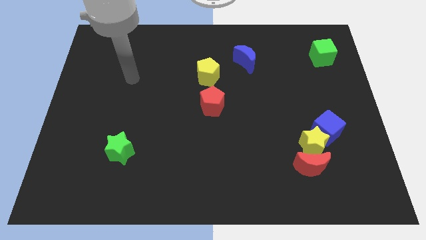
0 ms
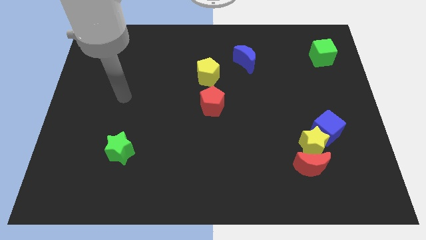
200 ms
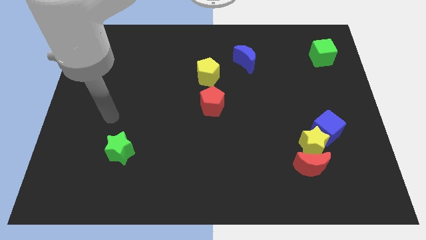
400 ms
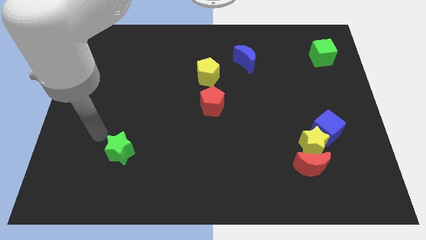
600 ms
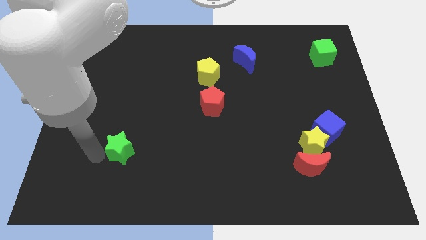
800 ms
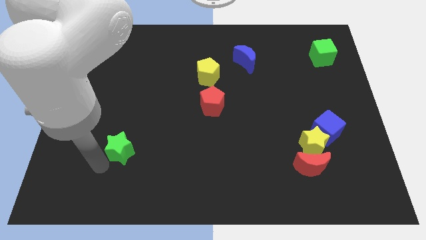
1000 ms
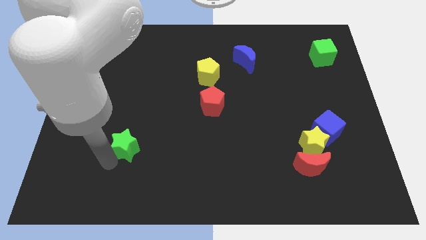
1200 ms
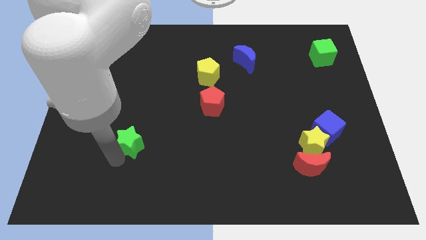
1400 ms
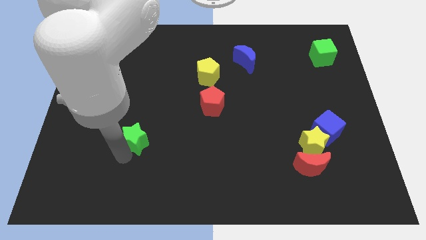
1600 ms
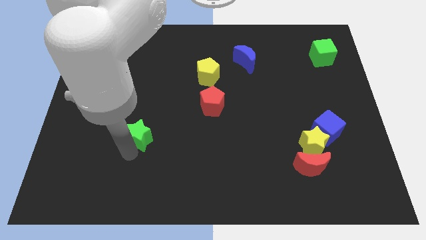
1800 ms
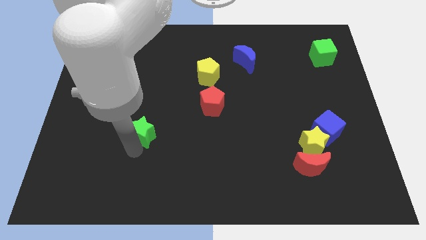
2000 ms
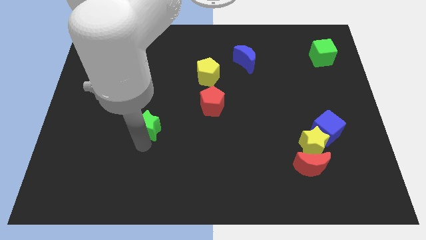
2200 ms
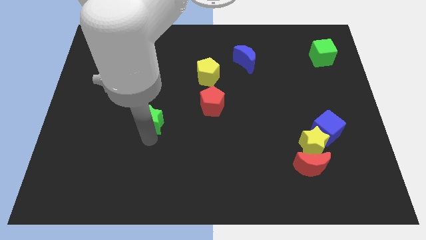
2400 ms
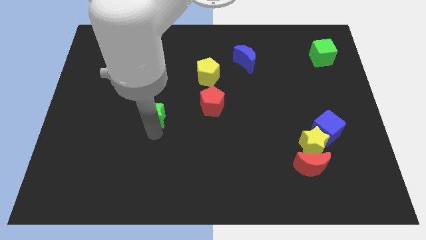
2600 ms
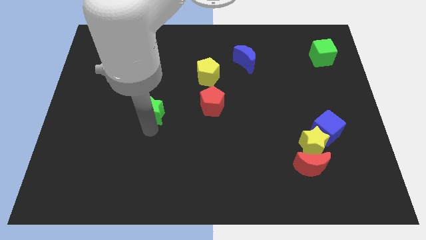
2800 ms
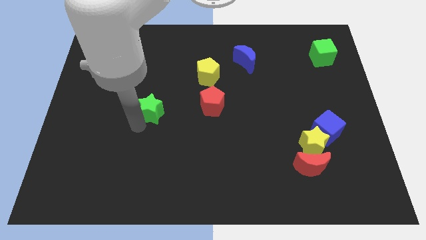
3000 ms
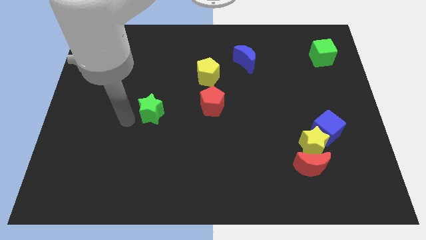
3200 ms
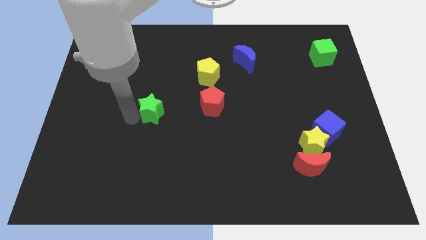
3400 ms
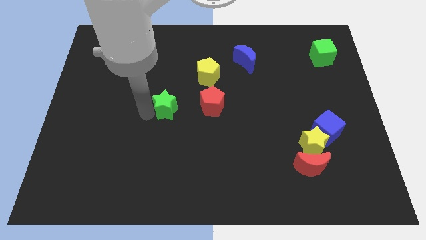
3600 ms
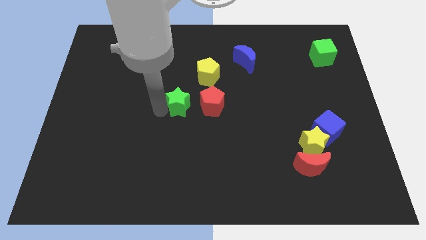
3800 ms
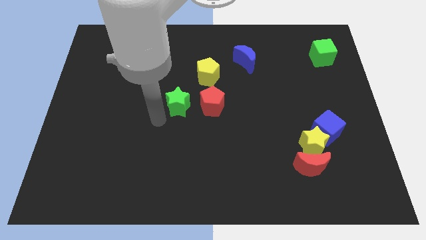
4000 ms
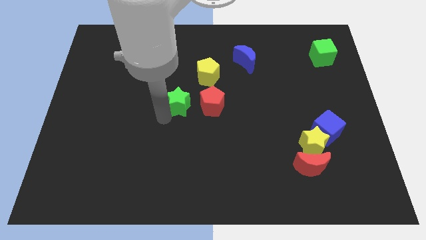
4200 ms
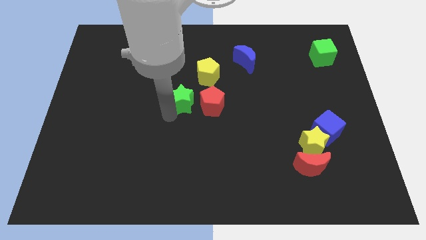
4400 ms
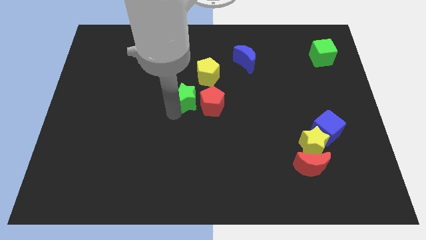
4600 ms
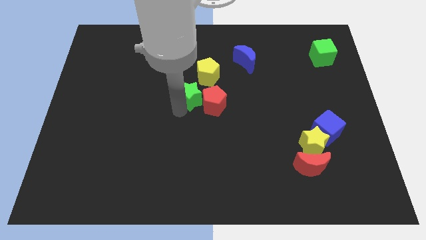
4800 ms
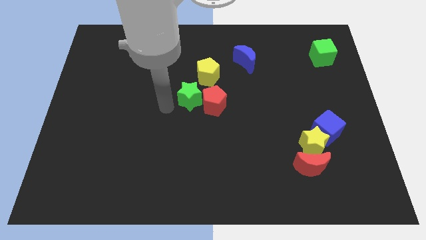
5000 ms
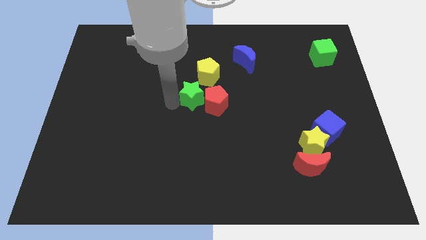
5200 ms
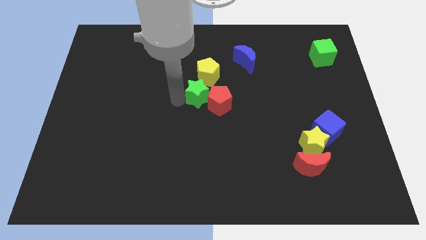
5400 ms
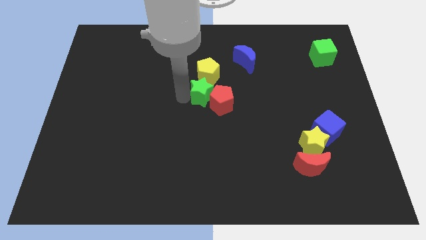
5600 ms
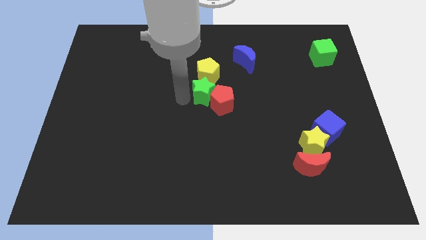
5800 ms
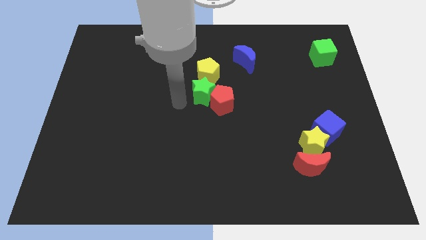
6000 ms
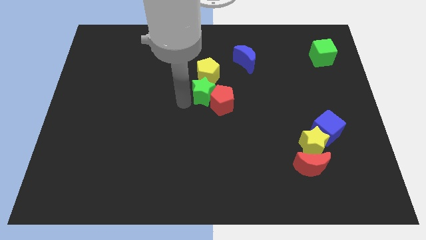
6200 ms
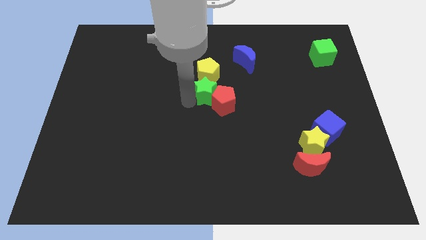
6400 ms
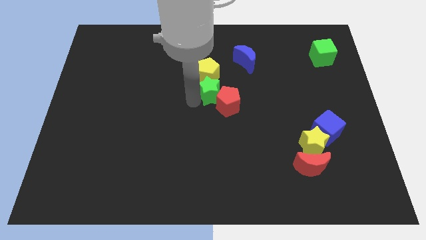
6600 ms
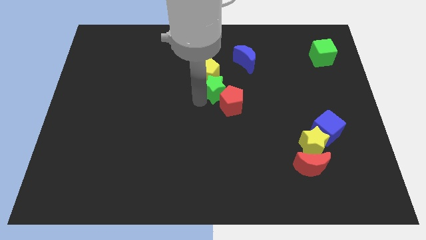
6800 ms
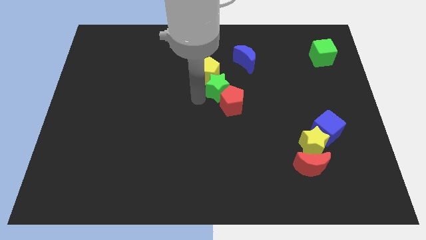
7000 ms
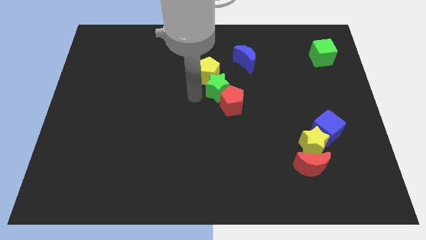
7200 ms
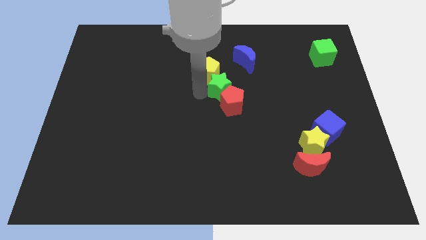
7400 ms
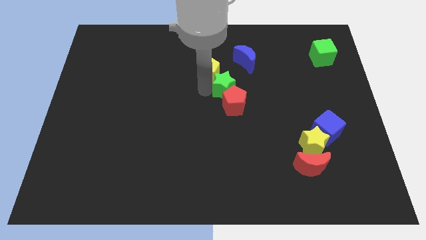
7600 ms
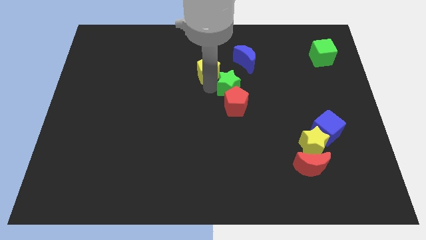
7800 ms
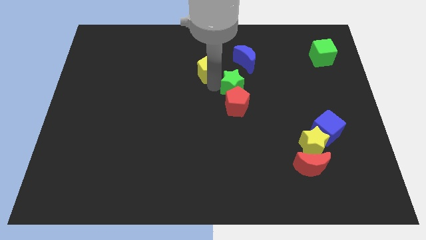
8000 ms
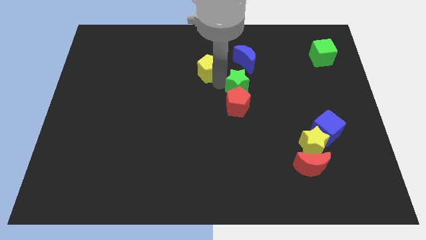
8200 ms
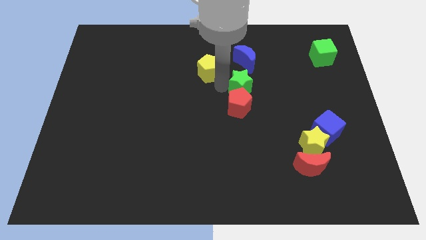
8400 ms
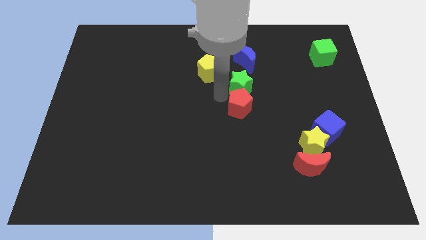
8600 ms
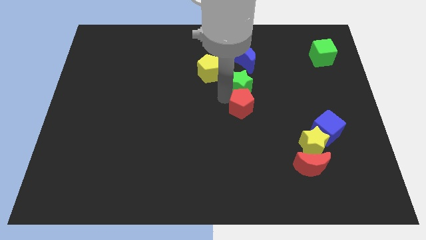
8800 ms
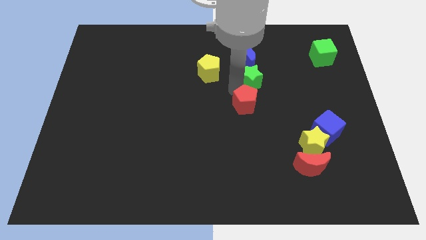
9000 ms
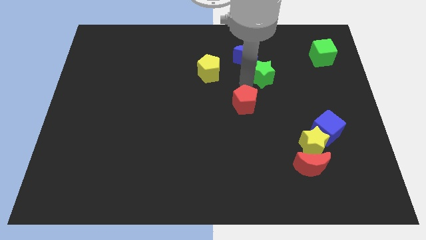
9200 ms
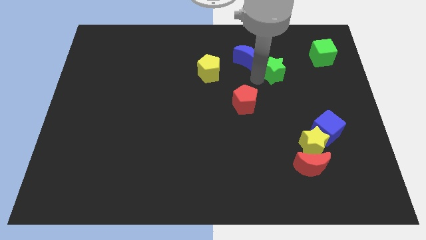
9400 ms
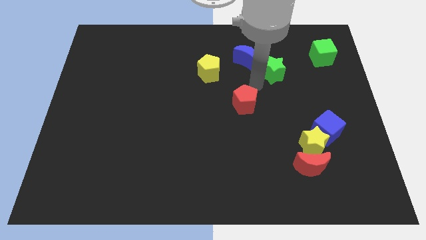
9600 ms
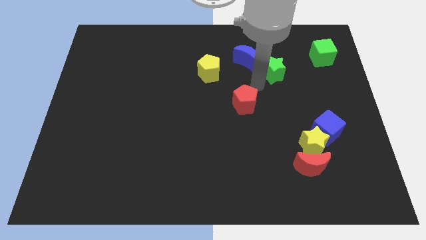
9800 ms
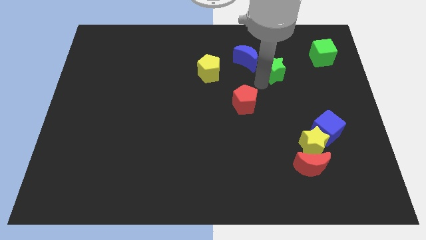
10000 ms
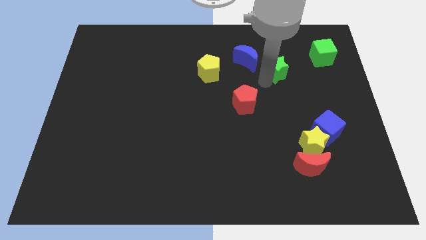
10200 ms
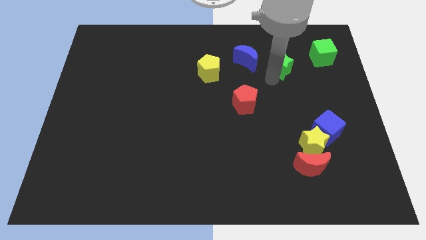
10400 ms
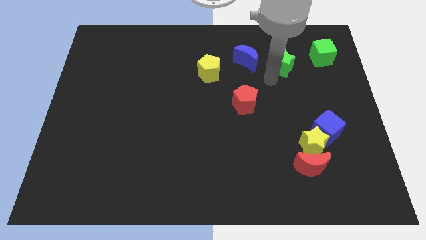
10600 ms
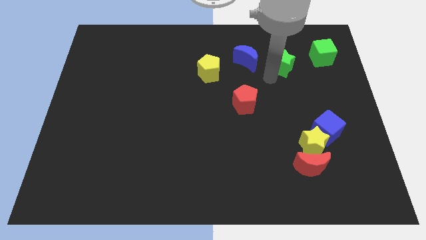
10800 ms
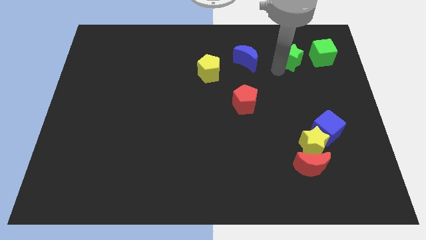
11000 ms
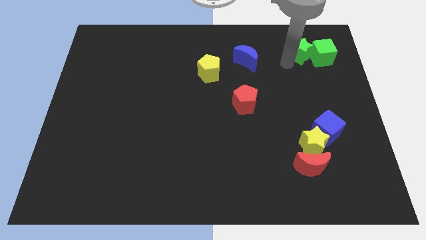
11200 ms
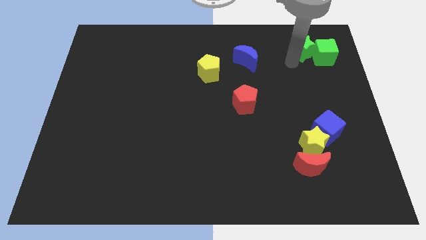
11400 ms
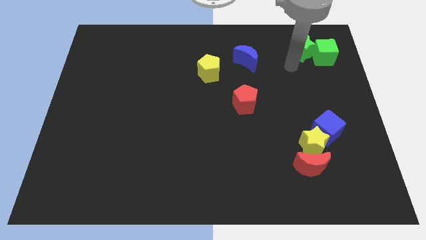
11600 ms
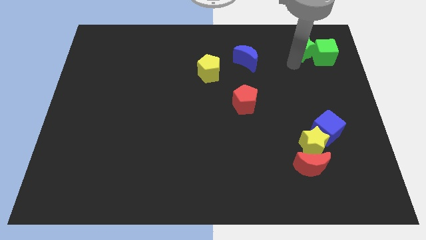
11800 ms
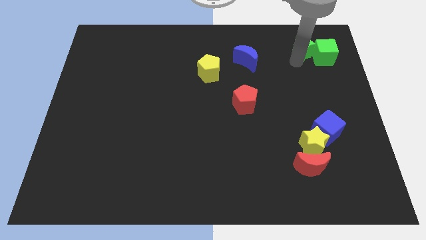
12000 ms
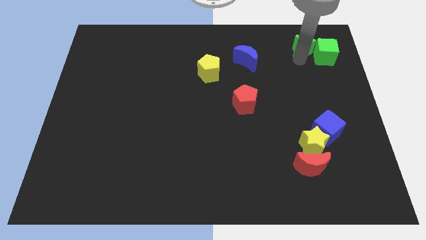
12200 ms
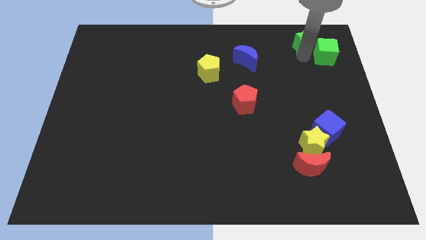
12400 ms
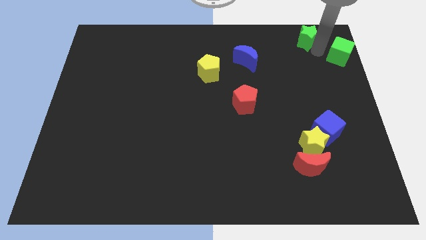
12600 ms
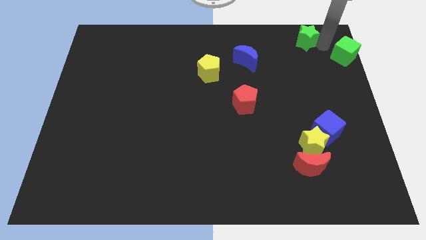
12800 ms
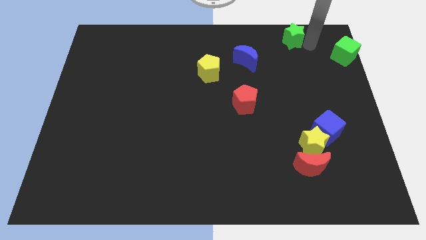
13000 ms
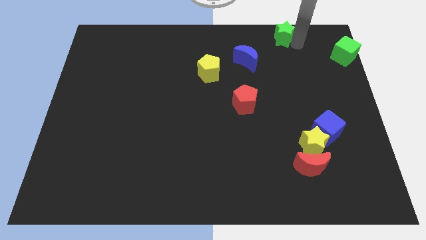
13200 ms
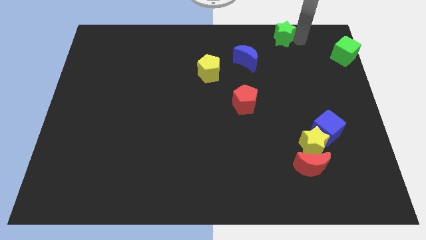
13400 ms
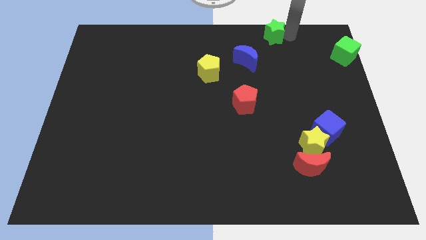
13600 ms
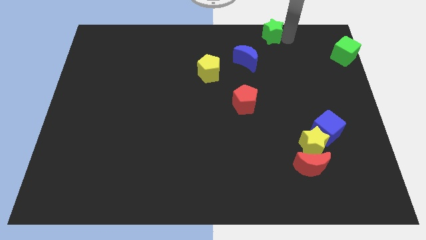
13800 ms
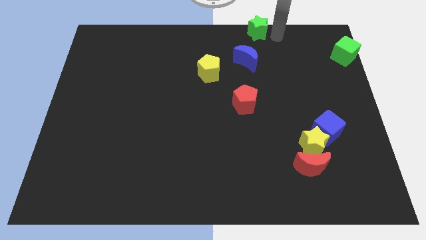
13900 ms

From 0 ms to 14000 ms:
slide the green star to the top
